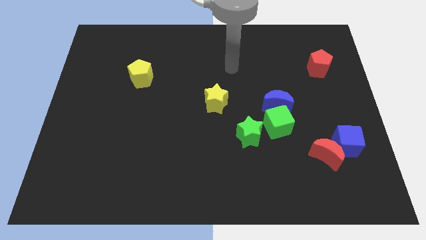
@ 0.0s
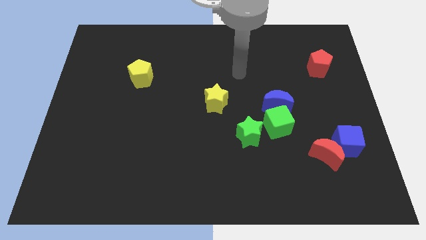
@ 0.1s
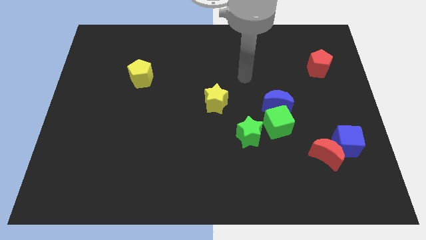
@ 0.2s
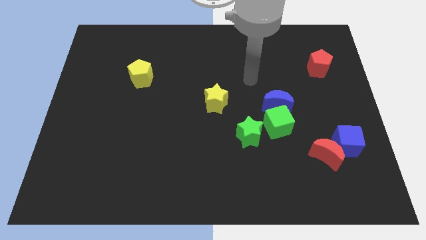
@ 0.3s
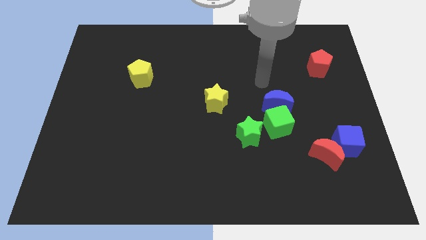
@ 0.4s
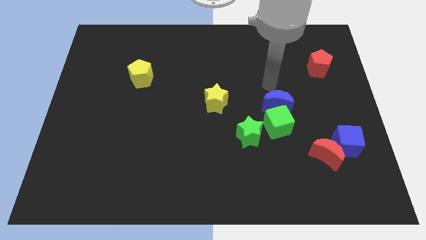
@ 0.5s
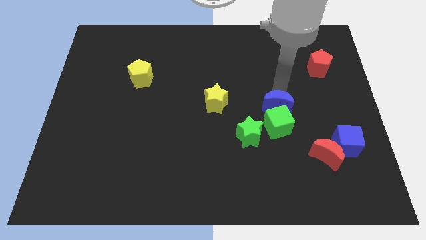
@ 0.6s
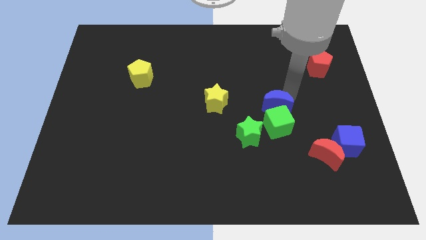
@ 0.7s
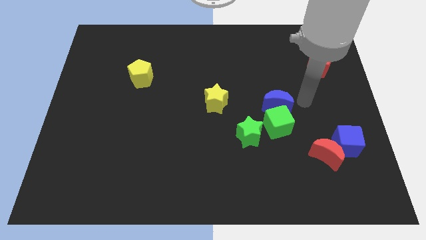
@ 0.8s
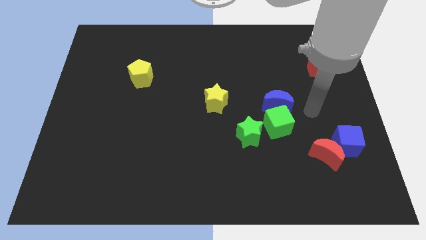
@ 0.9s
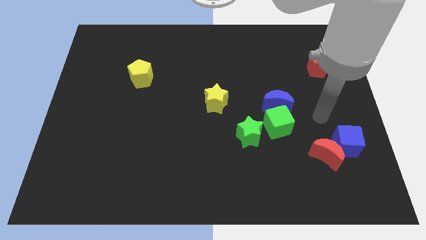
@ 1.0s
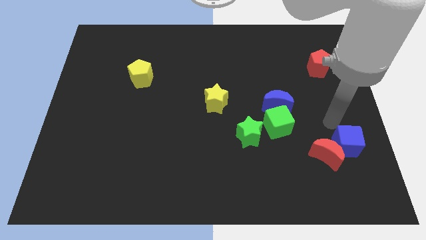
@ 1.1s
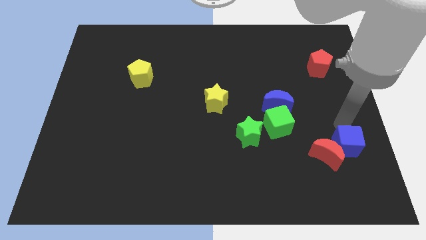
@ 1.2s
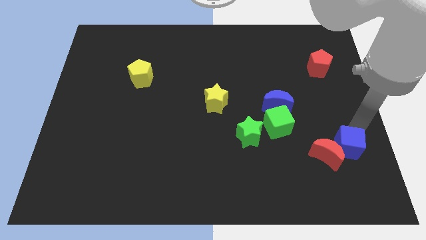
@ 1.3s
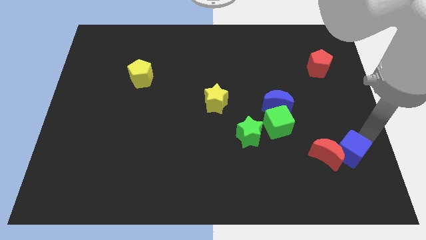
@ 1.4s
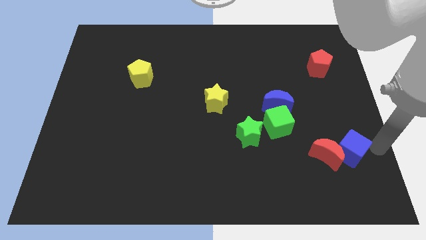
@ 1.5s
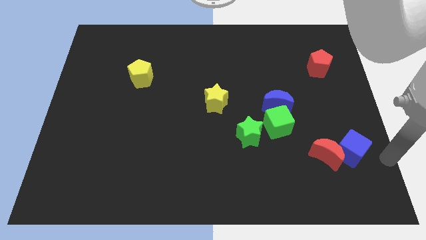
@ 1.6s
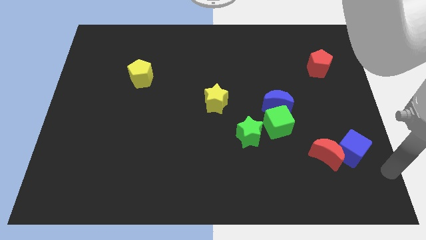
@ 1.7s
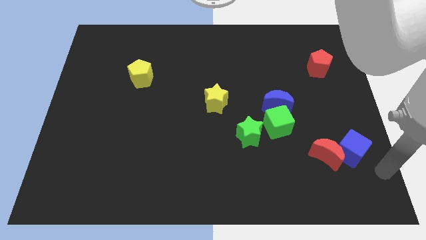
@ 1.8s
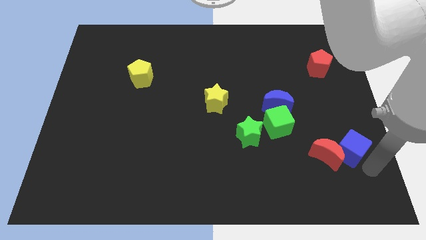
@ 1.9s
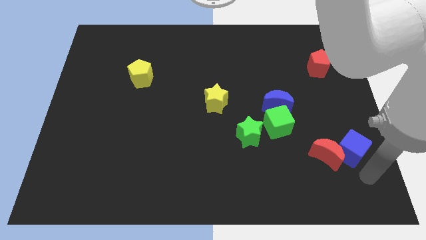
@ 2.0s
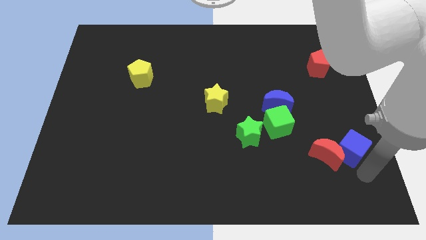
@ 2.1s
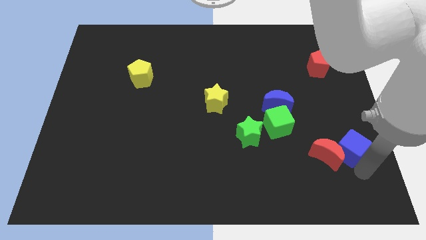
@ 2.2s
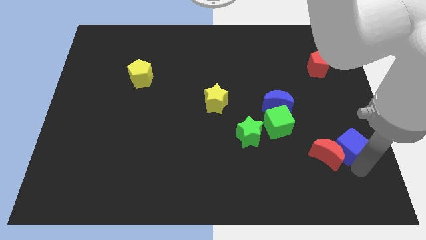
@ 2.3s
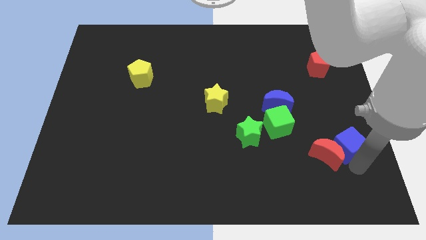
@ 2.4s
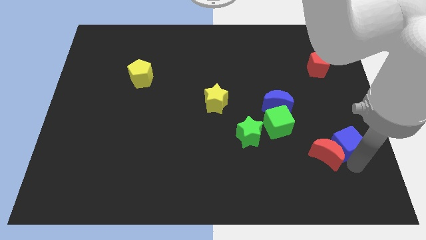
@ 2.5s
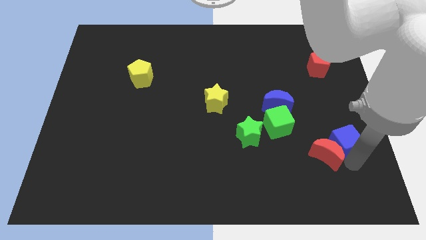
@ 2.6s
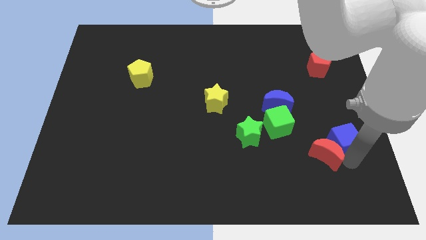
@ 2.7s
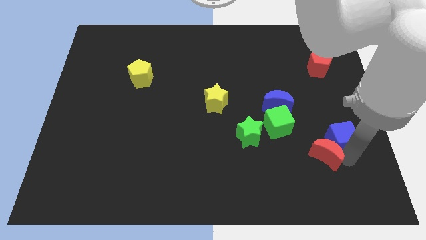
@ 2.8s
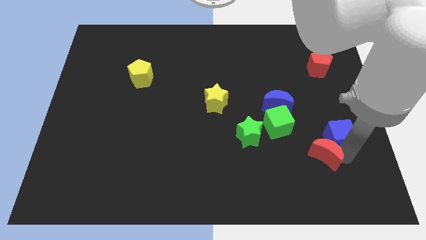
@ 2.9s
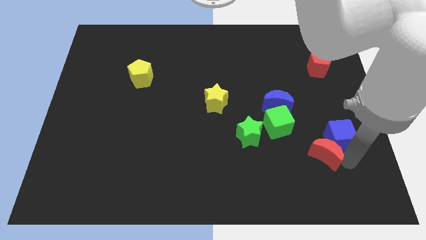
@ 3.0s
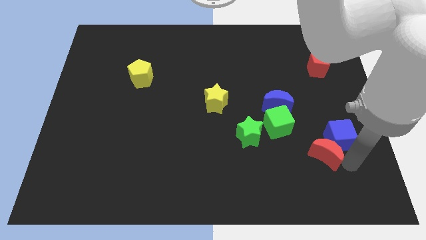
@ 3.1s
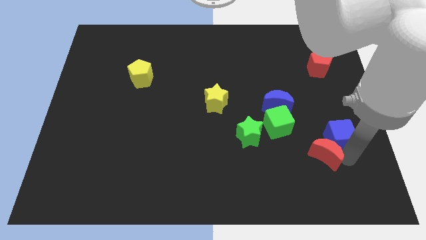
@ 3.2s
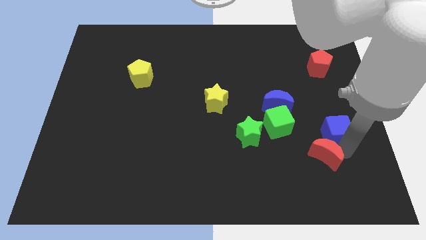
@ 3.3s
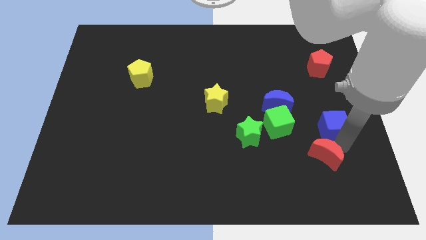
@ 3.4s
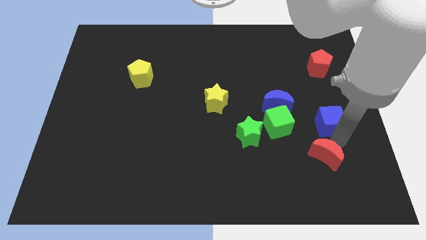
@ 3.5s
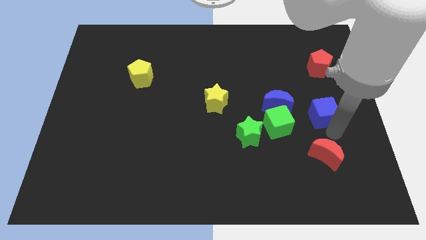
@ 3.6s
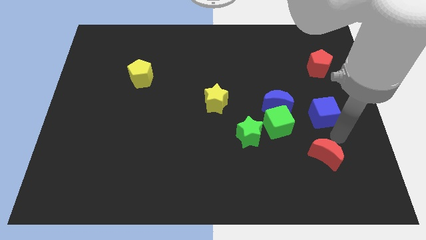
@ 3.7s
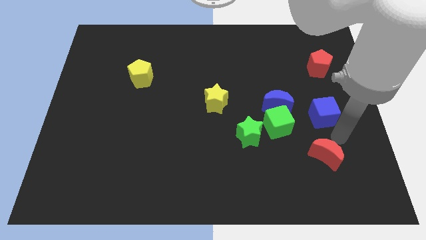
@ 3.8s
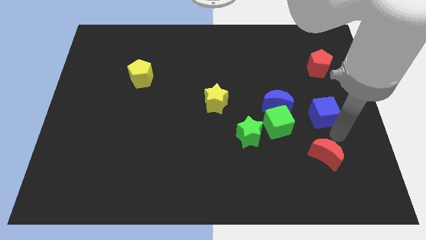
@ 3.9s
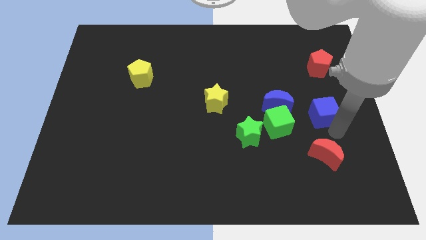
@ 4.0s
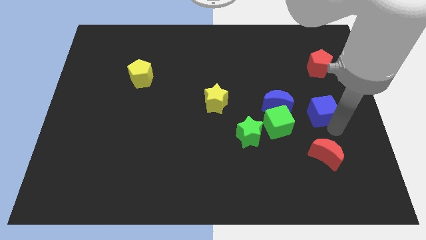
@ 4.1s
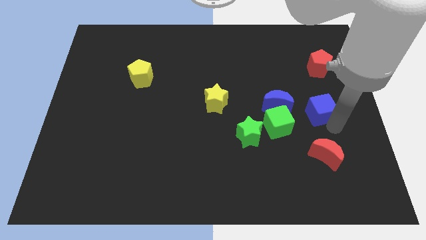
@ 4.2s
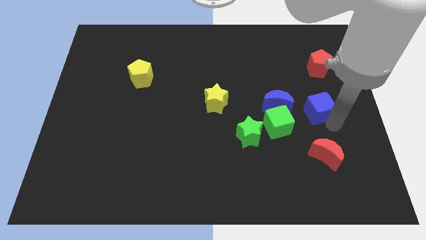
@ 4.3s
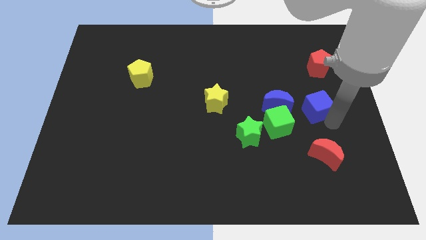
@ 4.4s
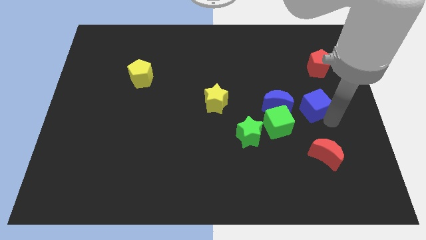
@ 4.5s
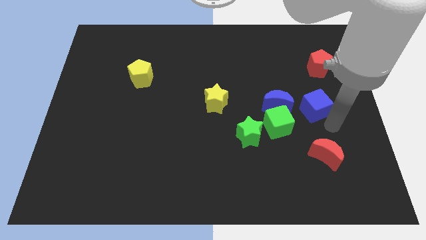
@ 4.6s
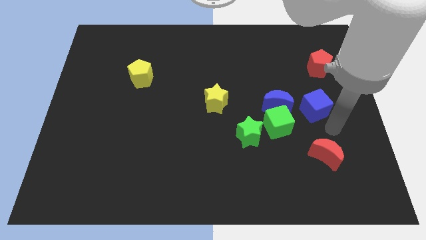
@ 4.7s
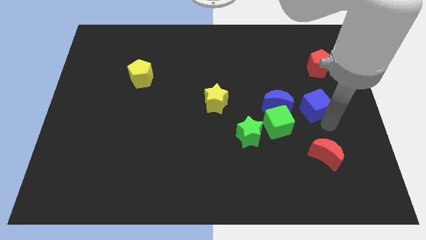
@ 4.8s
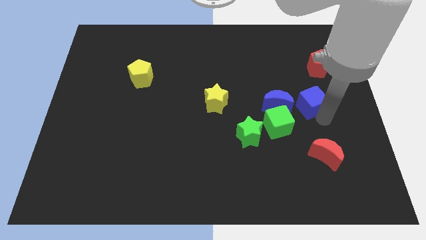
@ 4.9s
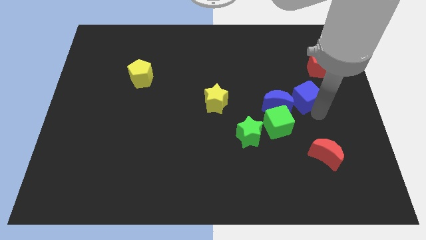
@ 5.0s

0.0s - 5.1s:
slide the blue cube to the top right of the blue moon

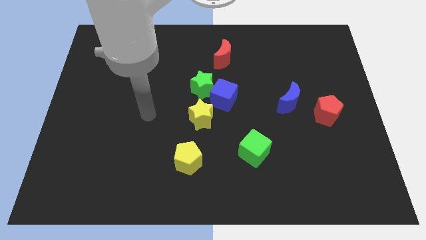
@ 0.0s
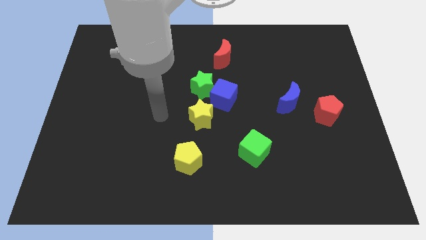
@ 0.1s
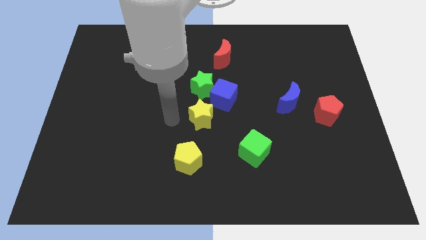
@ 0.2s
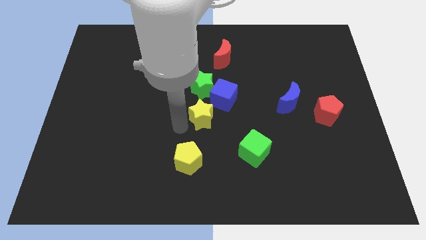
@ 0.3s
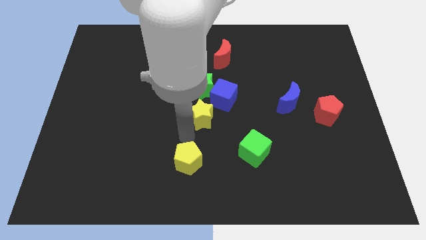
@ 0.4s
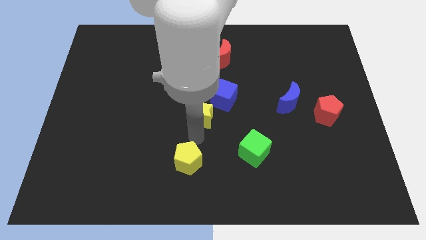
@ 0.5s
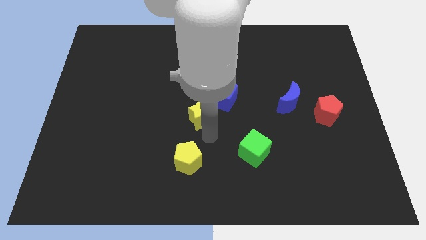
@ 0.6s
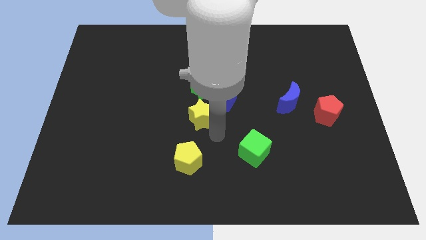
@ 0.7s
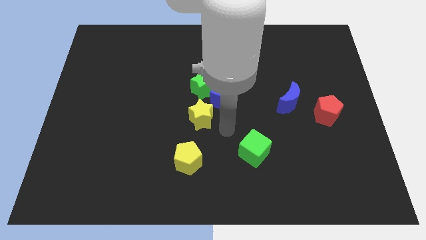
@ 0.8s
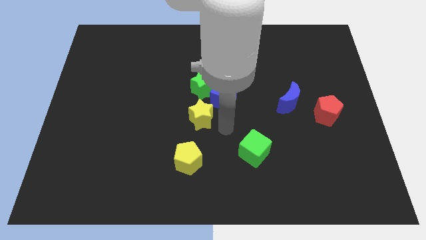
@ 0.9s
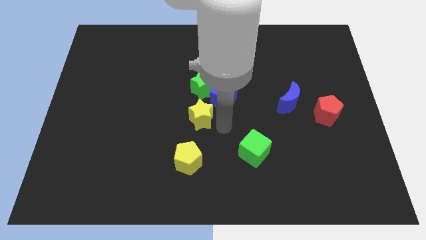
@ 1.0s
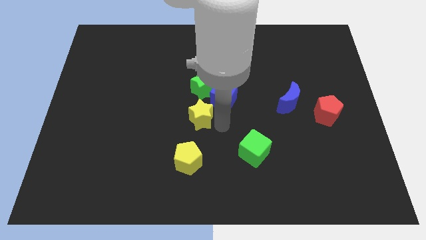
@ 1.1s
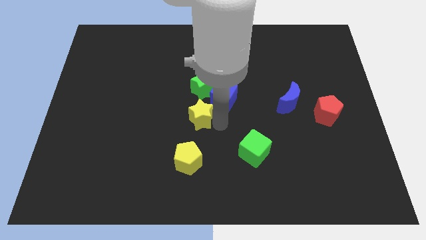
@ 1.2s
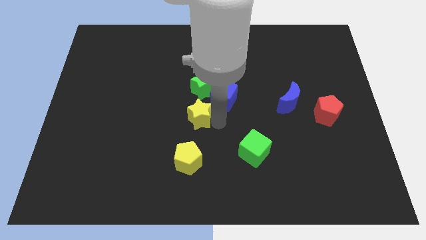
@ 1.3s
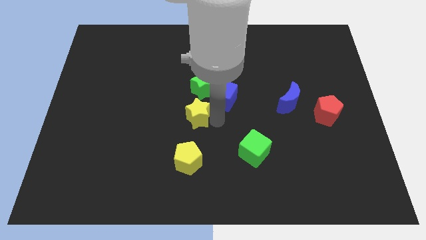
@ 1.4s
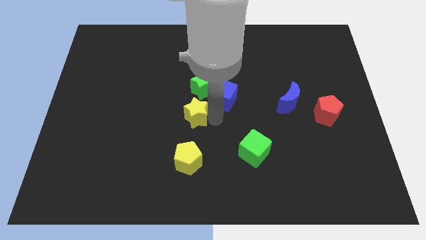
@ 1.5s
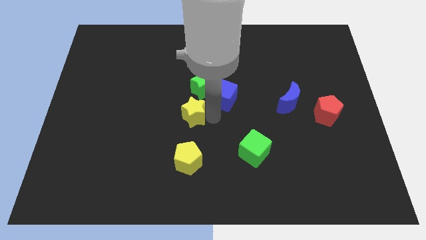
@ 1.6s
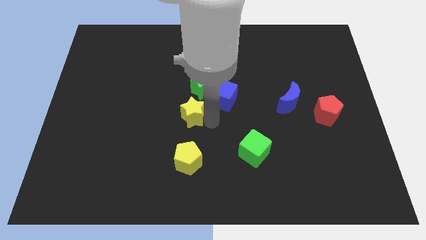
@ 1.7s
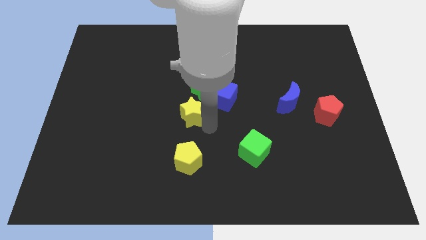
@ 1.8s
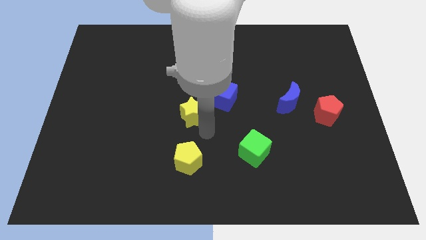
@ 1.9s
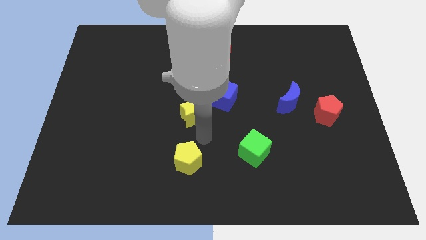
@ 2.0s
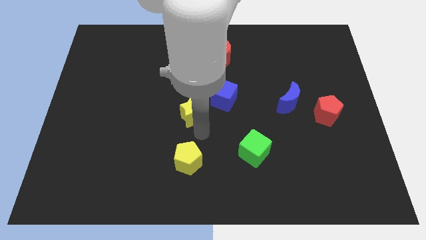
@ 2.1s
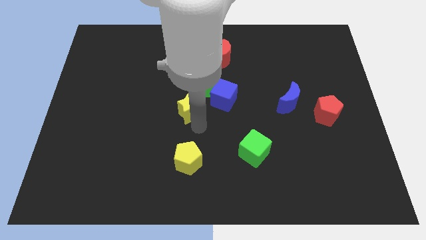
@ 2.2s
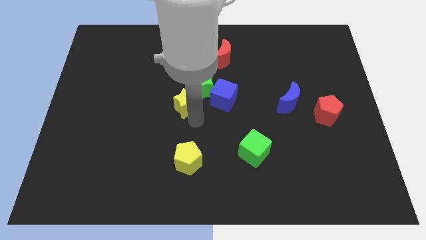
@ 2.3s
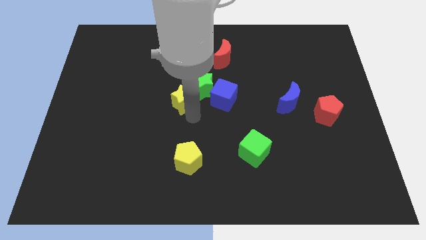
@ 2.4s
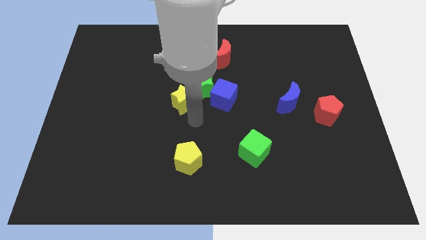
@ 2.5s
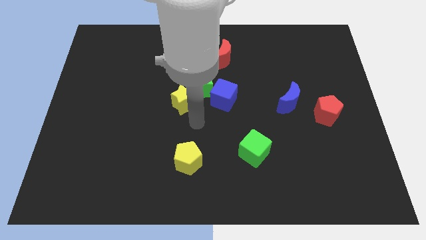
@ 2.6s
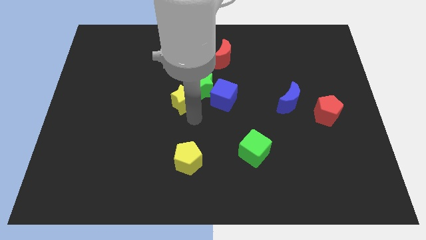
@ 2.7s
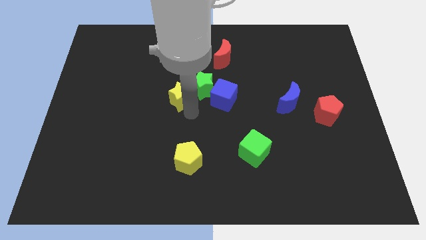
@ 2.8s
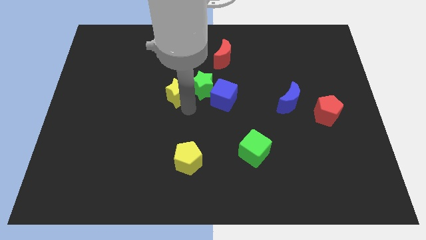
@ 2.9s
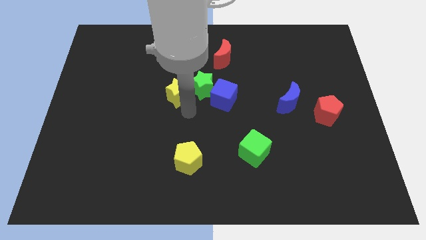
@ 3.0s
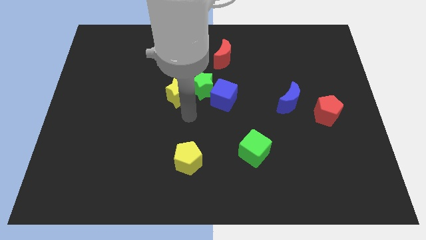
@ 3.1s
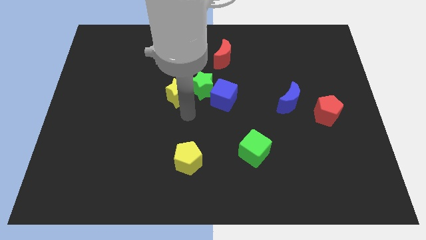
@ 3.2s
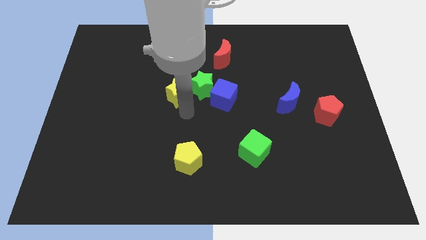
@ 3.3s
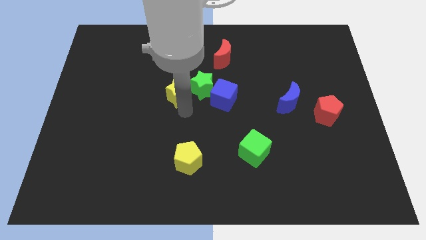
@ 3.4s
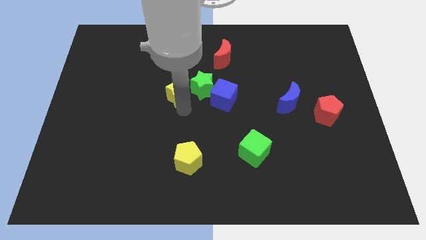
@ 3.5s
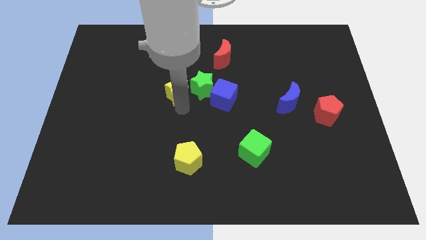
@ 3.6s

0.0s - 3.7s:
put the yellow star to the top left of the green star
